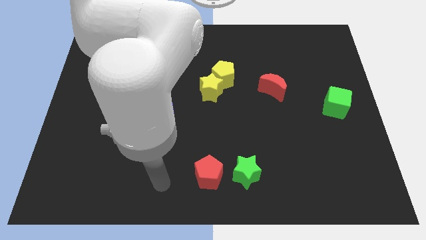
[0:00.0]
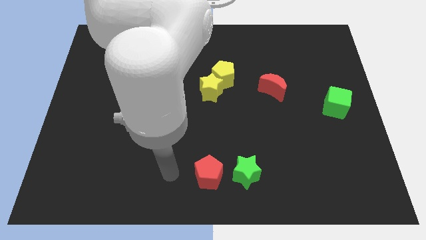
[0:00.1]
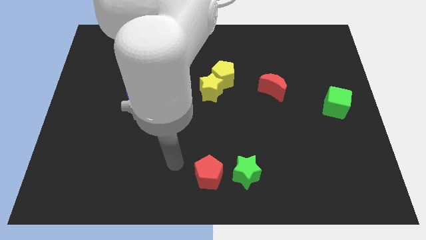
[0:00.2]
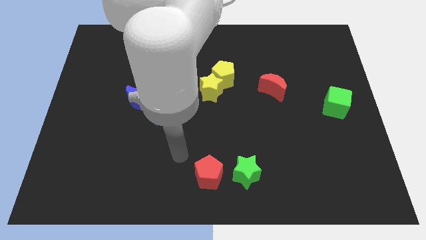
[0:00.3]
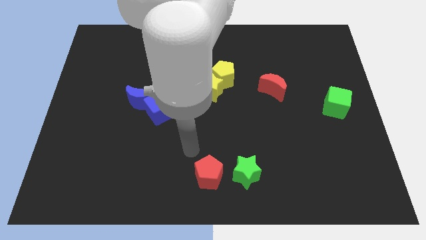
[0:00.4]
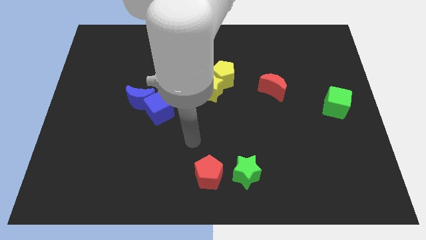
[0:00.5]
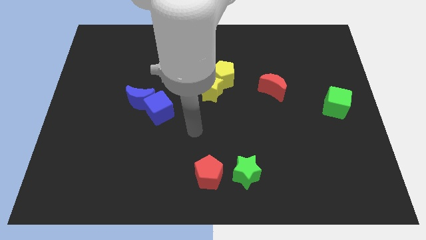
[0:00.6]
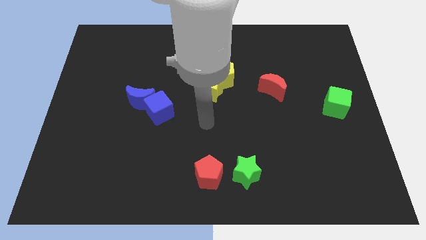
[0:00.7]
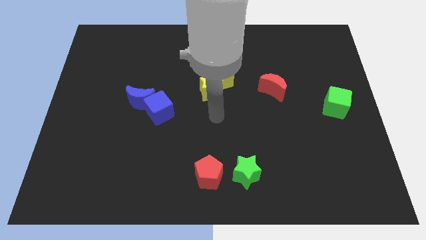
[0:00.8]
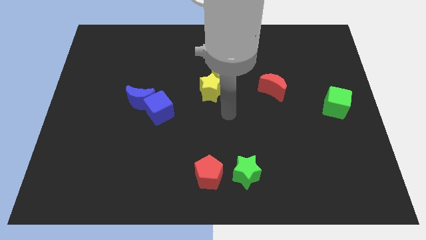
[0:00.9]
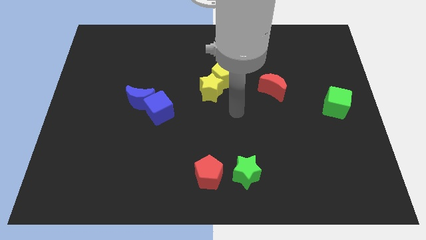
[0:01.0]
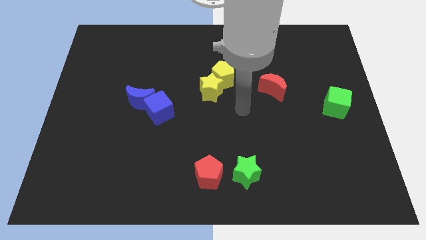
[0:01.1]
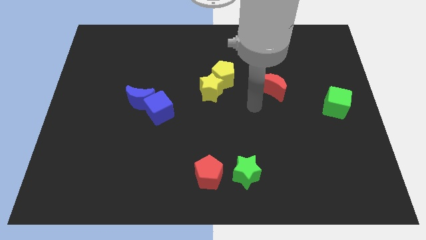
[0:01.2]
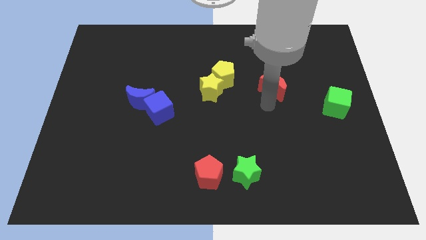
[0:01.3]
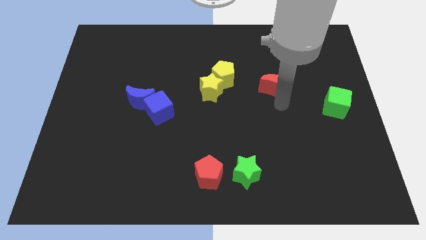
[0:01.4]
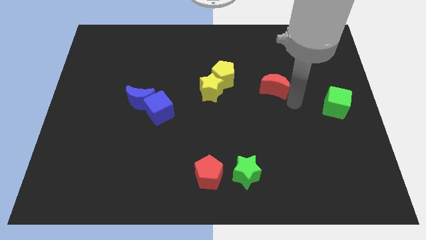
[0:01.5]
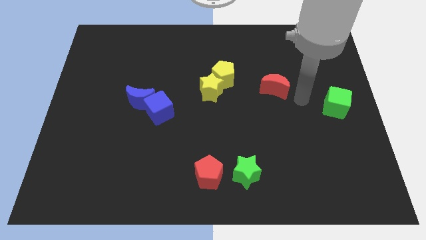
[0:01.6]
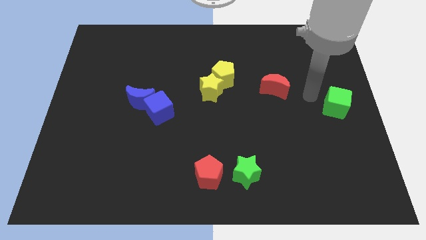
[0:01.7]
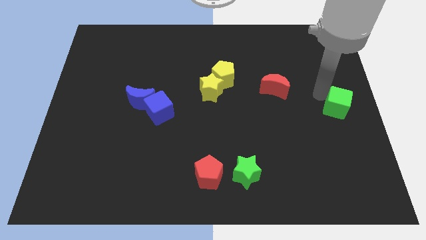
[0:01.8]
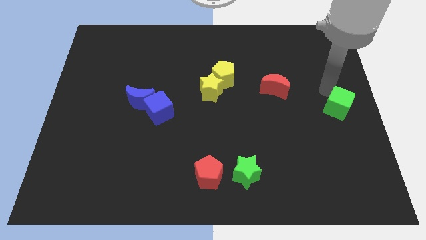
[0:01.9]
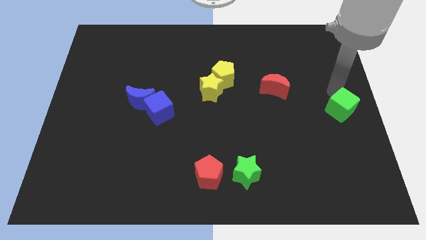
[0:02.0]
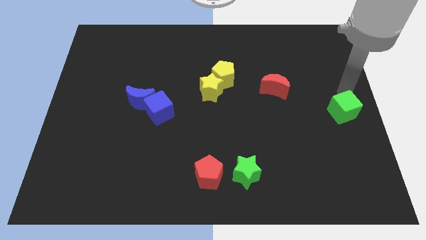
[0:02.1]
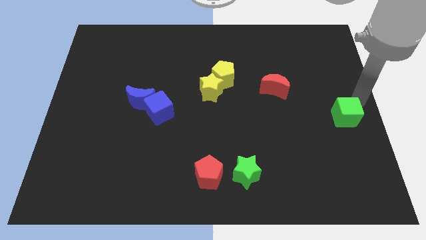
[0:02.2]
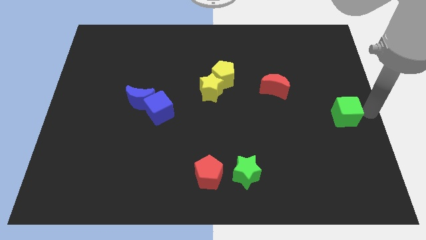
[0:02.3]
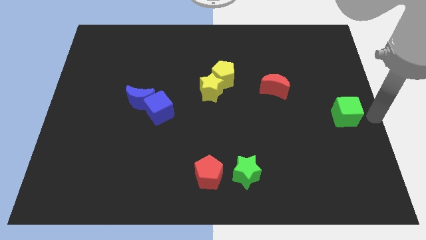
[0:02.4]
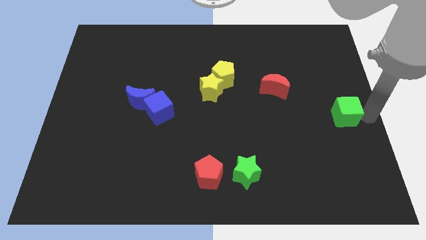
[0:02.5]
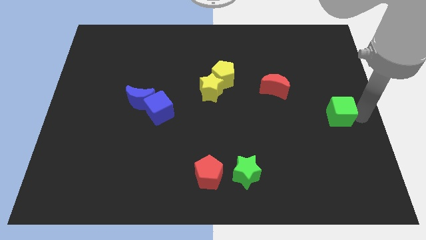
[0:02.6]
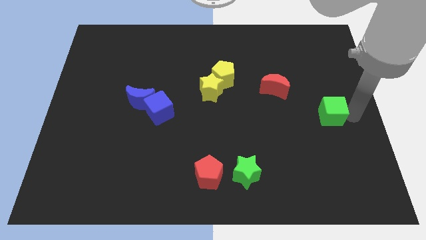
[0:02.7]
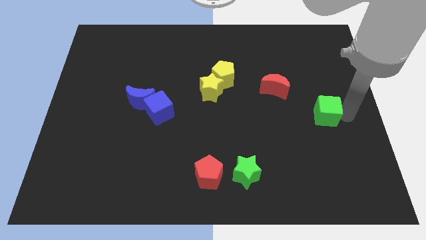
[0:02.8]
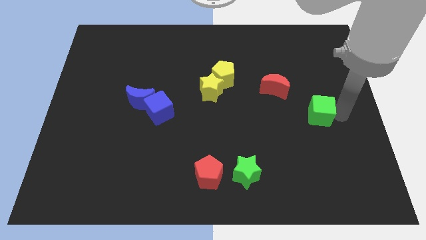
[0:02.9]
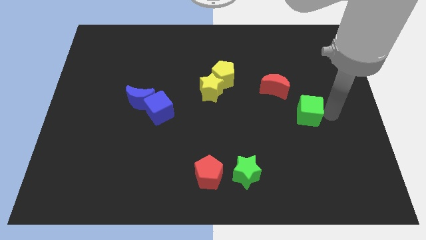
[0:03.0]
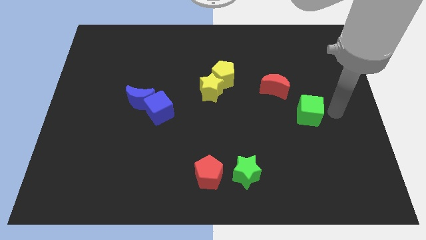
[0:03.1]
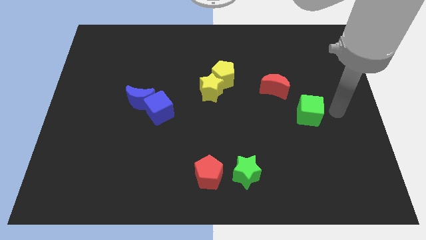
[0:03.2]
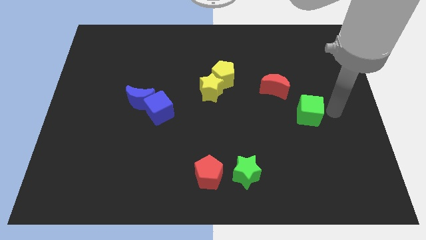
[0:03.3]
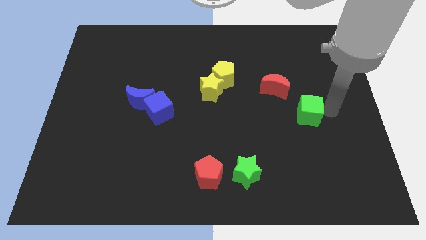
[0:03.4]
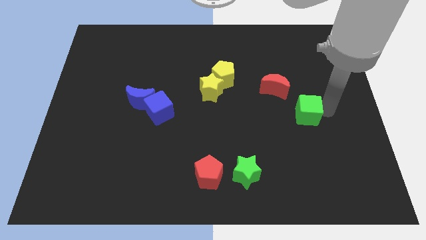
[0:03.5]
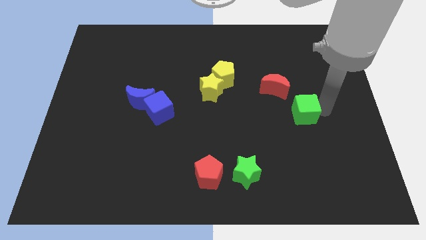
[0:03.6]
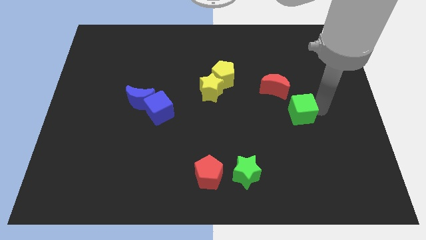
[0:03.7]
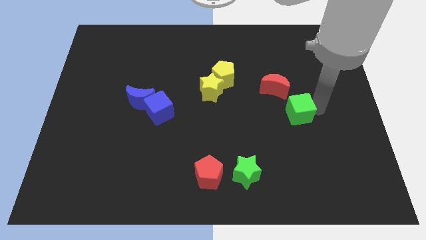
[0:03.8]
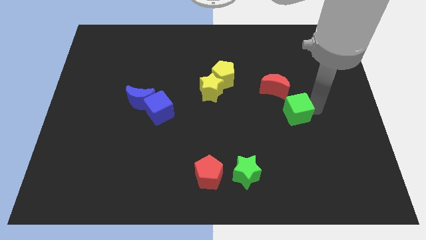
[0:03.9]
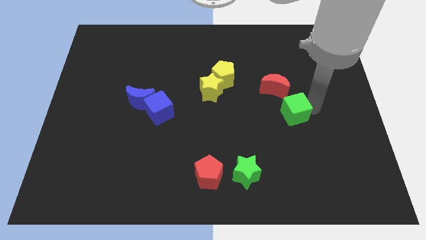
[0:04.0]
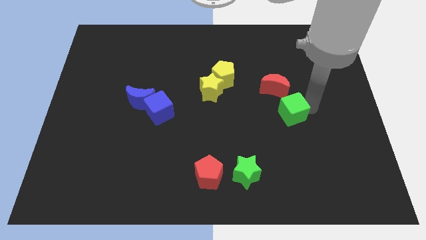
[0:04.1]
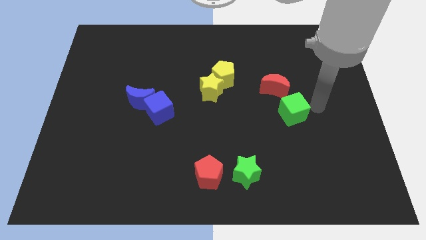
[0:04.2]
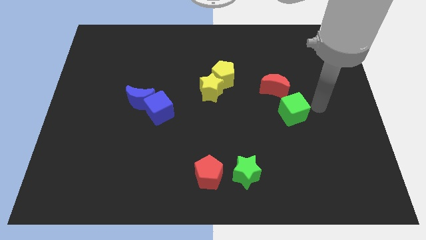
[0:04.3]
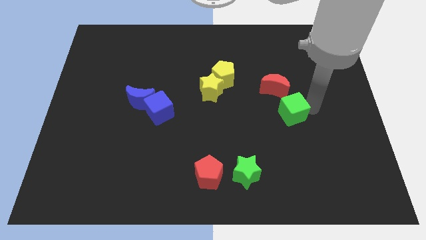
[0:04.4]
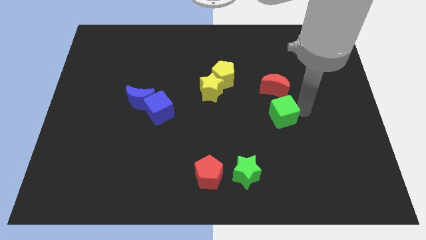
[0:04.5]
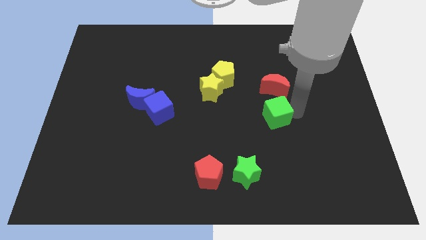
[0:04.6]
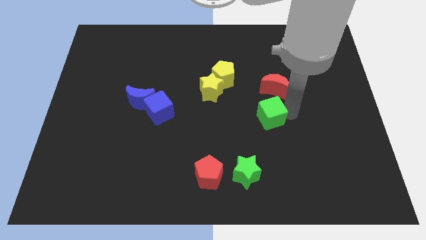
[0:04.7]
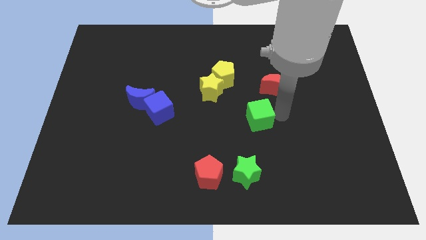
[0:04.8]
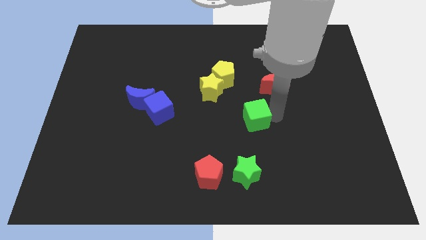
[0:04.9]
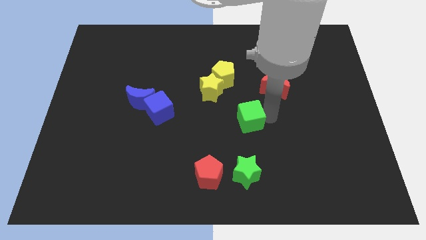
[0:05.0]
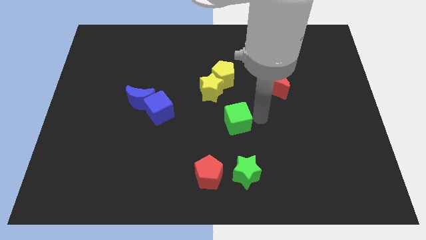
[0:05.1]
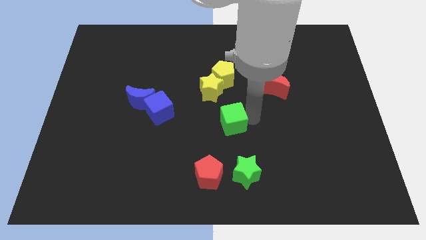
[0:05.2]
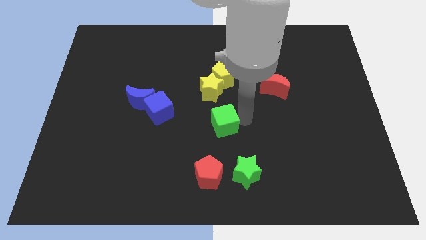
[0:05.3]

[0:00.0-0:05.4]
move the green cube to the top side of the red pentagon

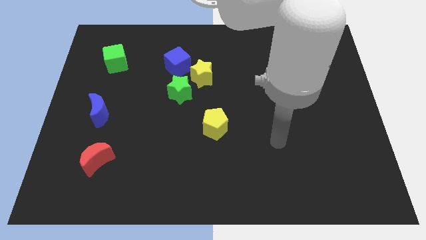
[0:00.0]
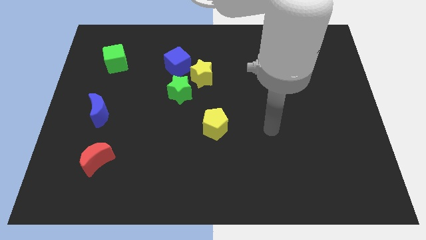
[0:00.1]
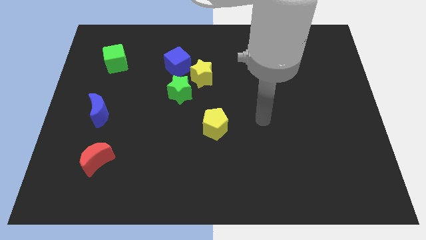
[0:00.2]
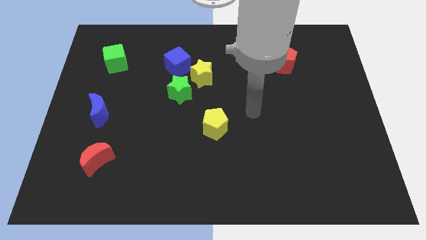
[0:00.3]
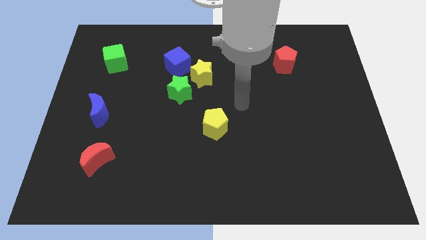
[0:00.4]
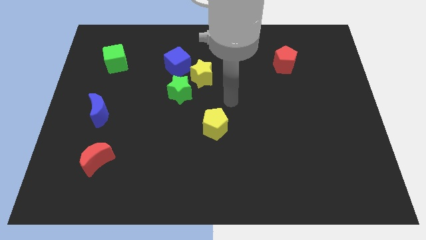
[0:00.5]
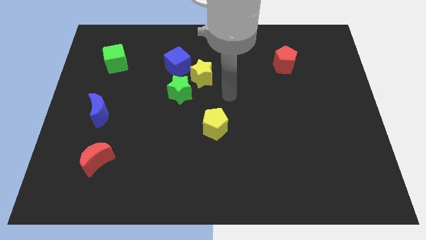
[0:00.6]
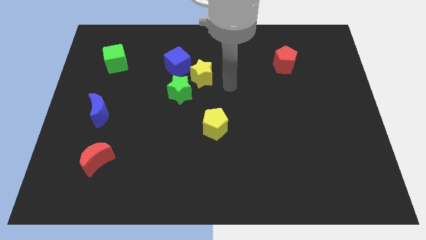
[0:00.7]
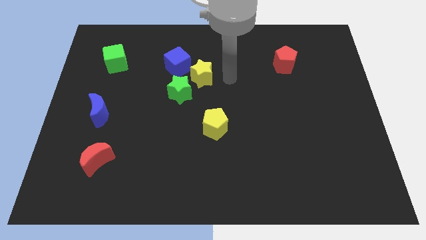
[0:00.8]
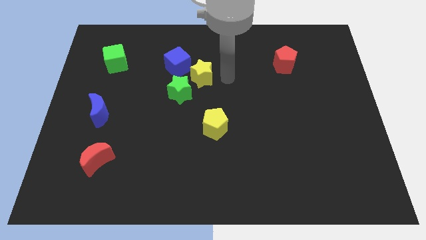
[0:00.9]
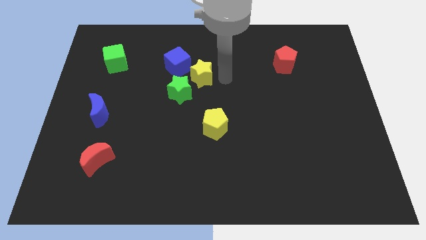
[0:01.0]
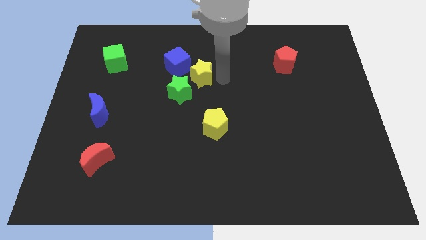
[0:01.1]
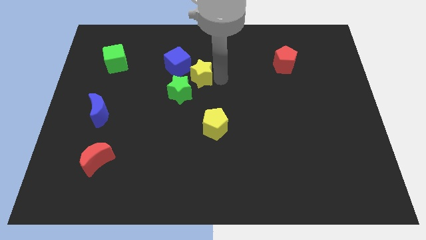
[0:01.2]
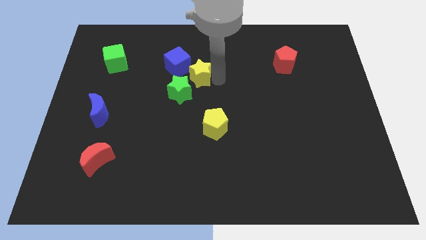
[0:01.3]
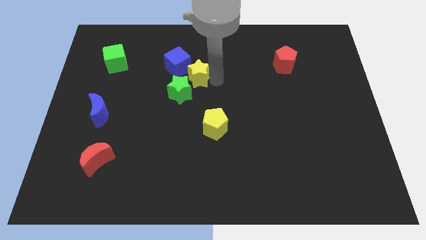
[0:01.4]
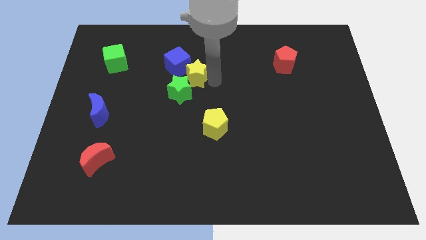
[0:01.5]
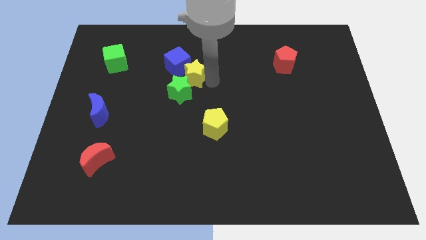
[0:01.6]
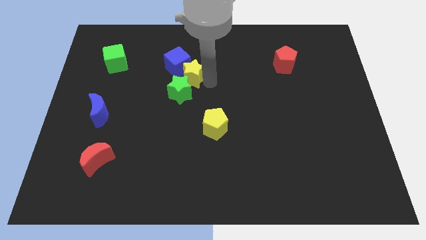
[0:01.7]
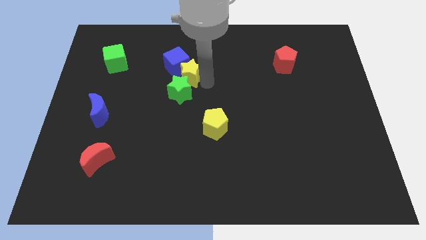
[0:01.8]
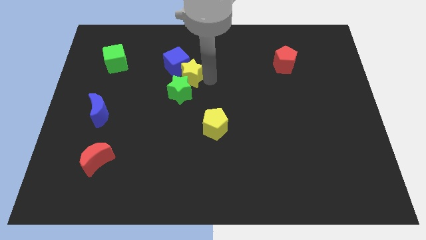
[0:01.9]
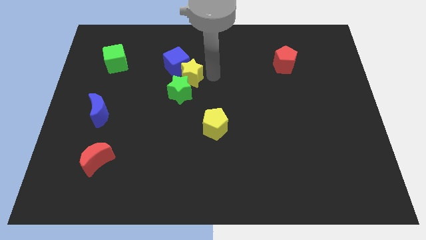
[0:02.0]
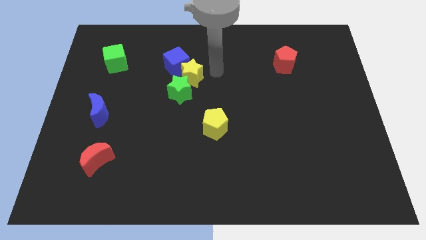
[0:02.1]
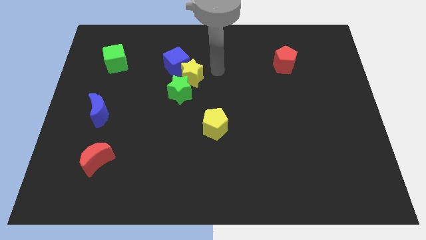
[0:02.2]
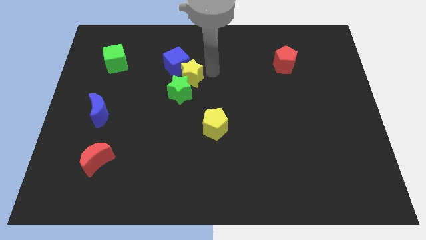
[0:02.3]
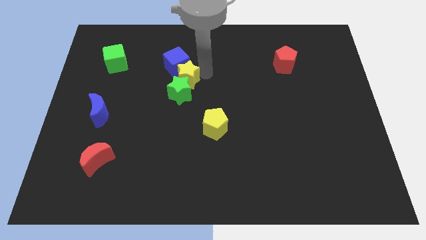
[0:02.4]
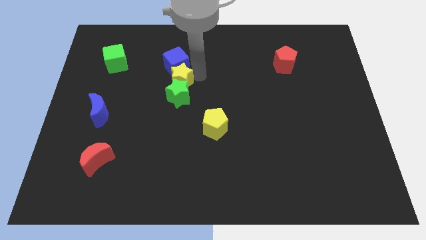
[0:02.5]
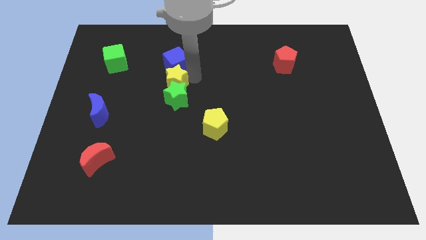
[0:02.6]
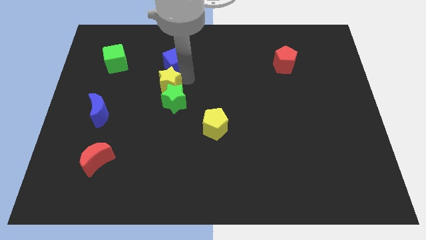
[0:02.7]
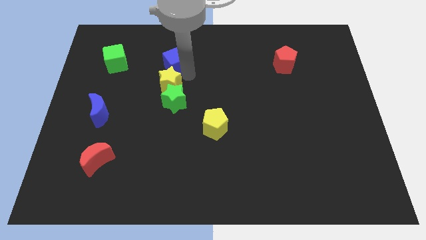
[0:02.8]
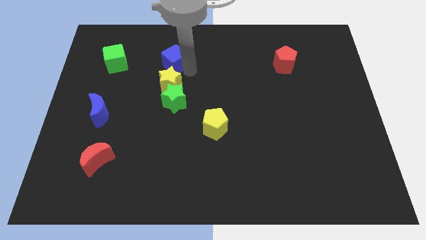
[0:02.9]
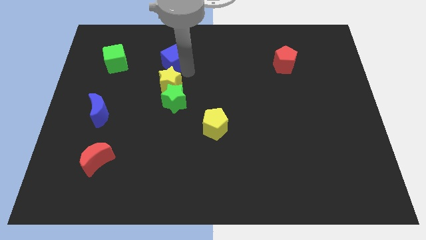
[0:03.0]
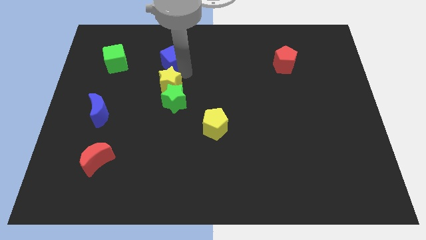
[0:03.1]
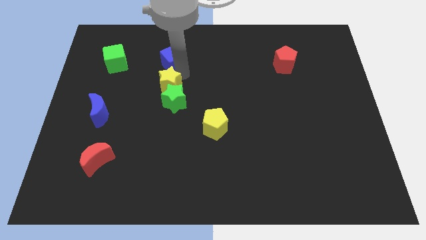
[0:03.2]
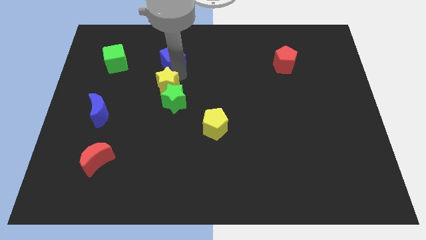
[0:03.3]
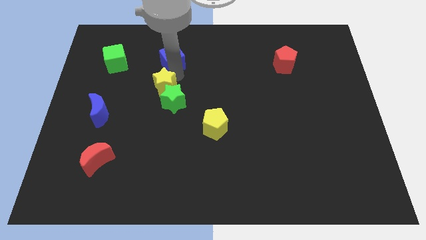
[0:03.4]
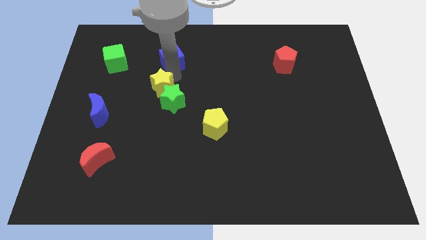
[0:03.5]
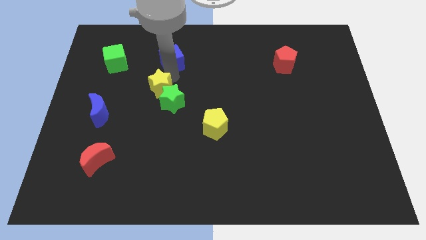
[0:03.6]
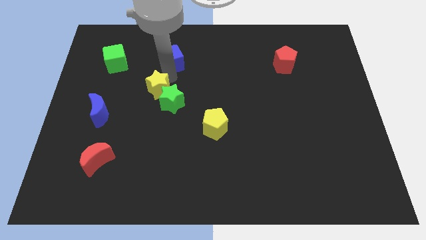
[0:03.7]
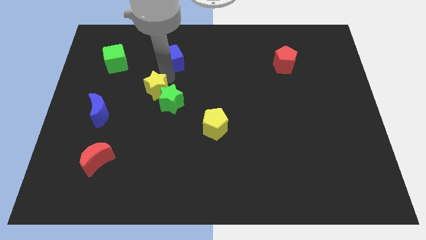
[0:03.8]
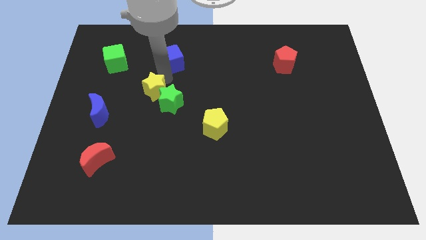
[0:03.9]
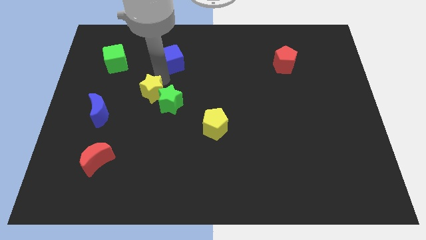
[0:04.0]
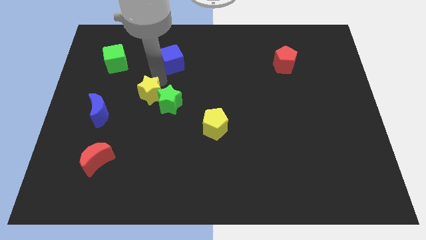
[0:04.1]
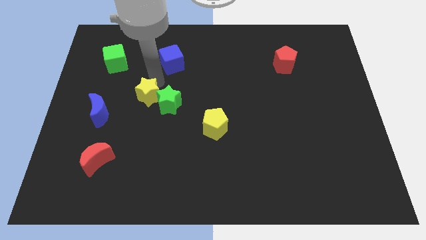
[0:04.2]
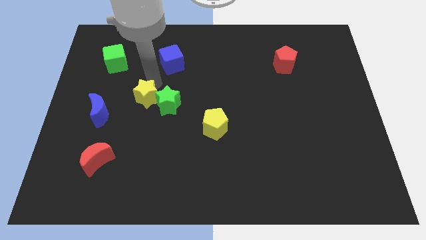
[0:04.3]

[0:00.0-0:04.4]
slide the yellow star right of the blue moon
